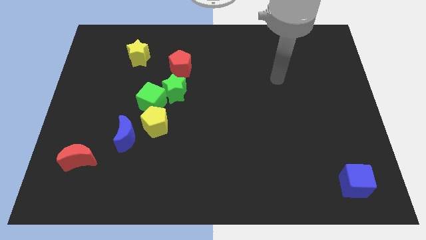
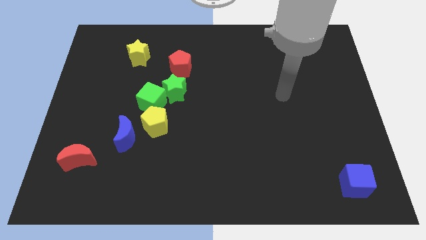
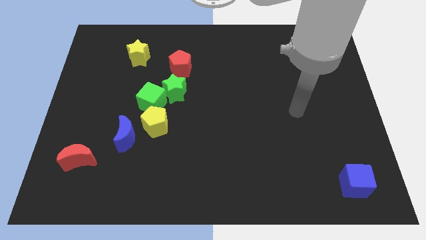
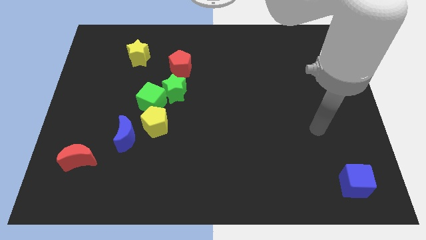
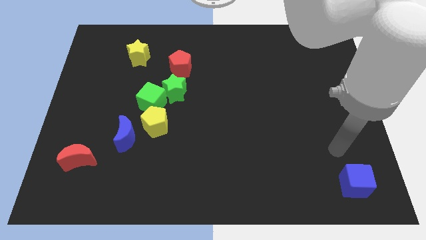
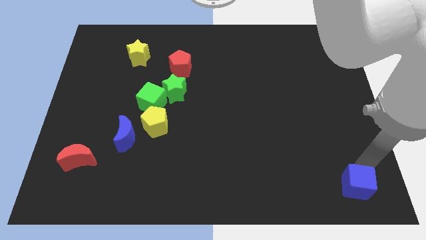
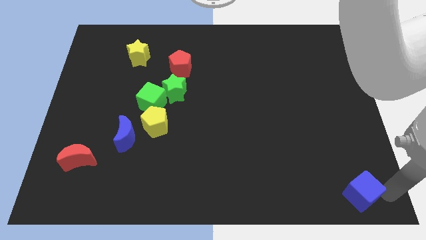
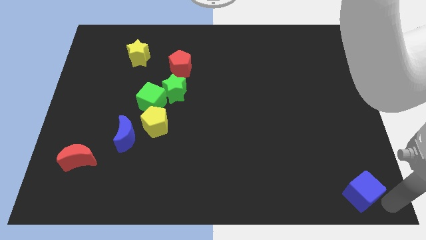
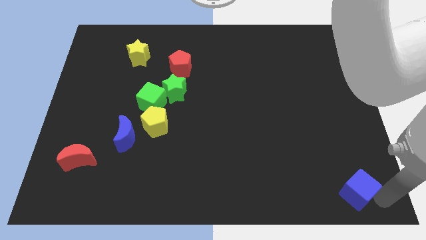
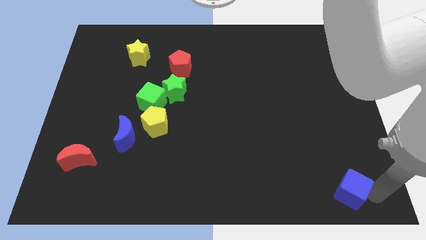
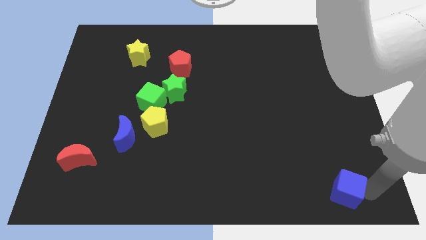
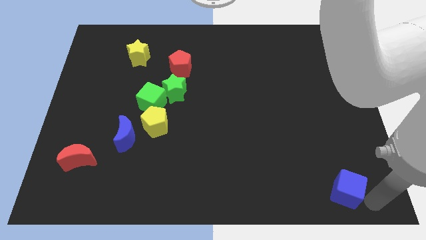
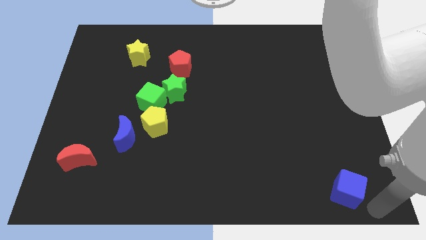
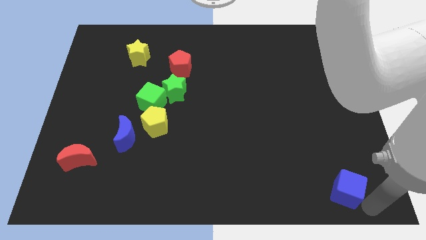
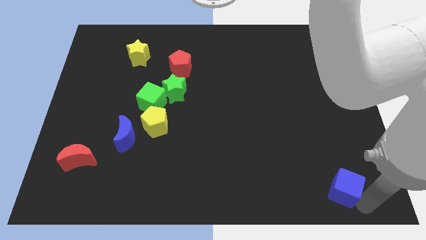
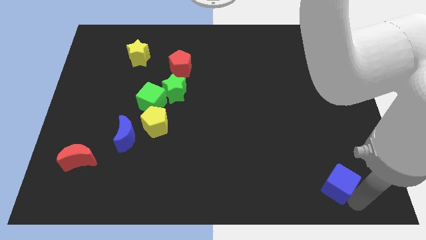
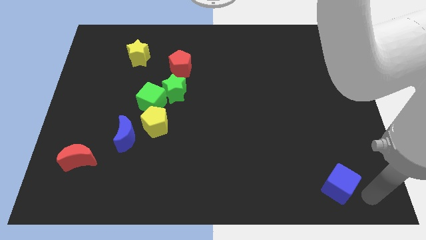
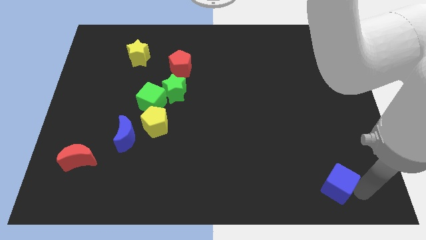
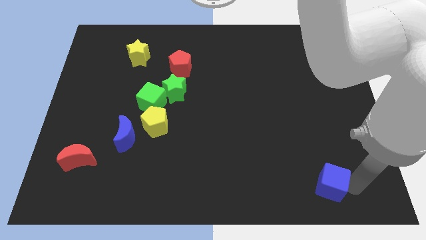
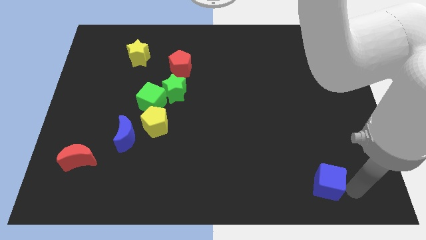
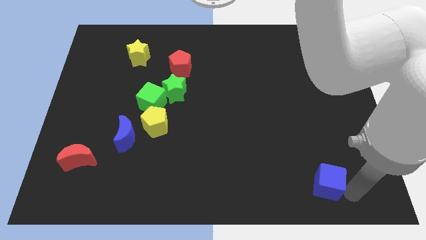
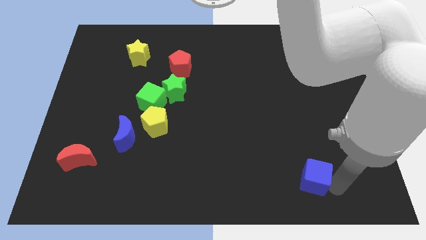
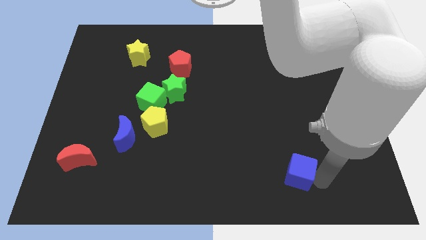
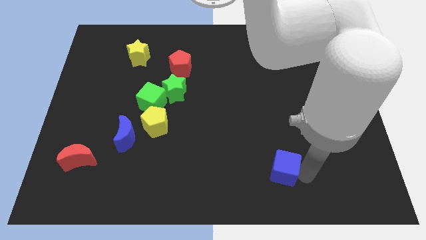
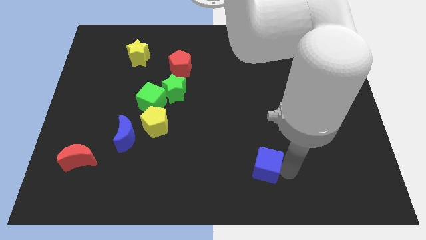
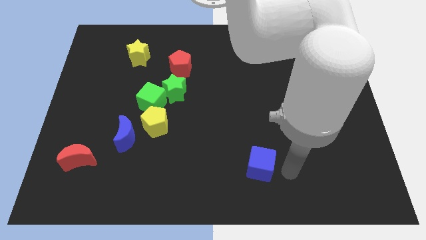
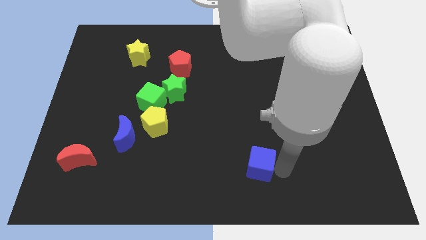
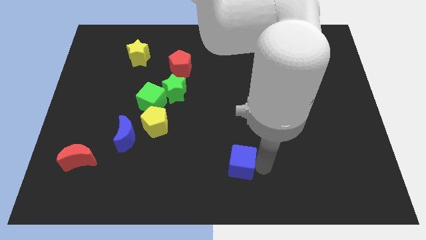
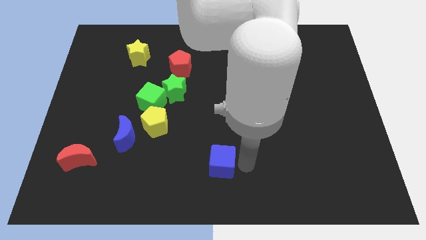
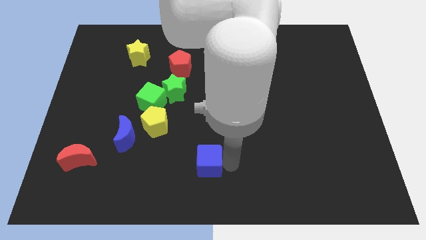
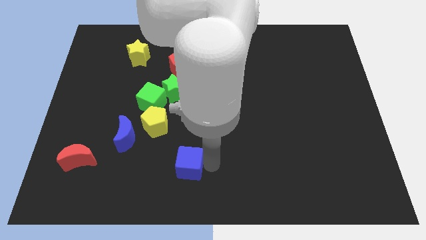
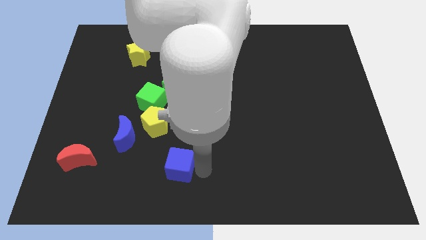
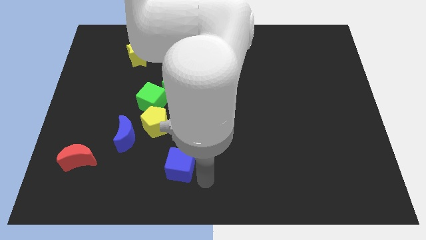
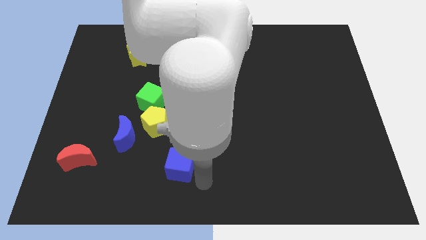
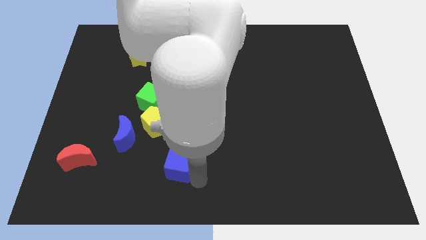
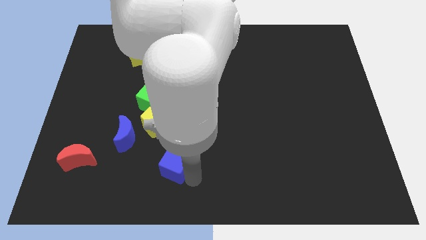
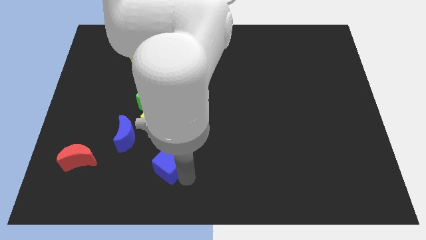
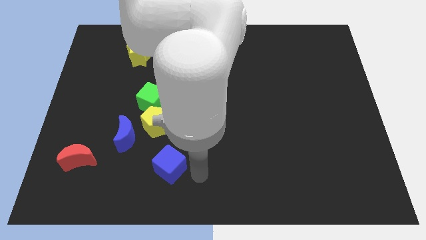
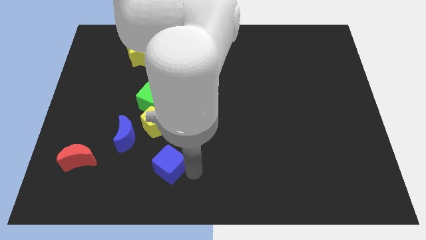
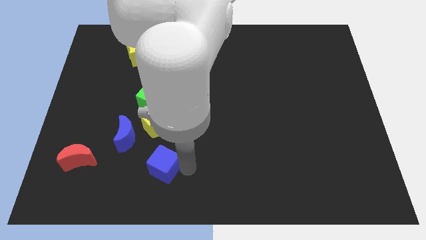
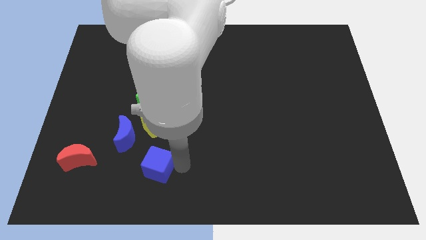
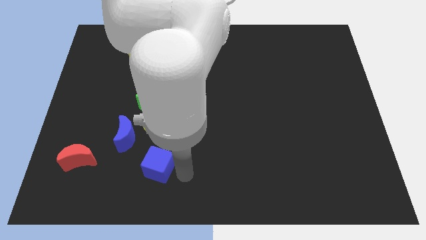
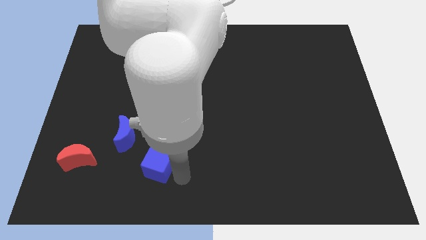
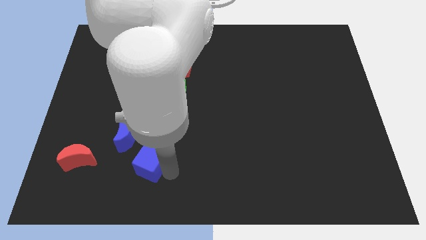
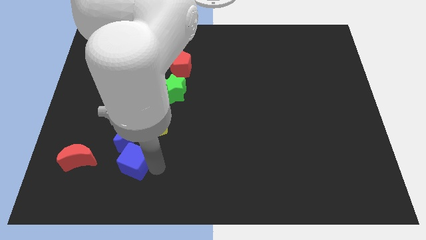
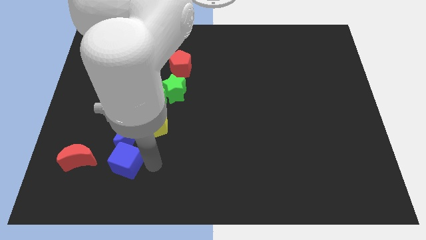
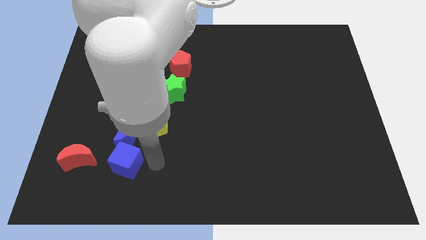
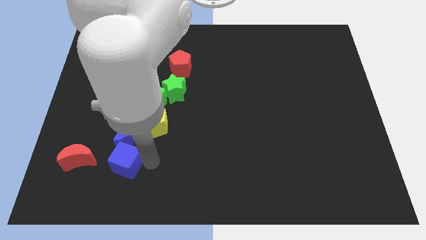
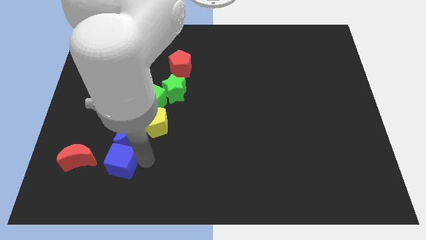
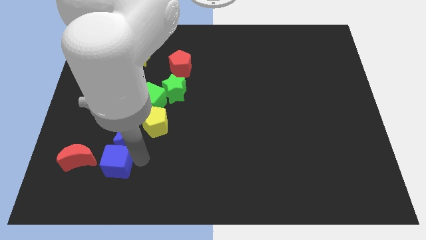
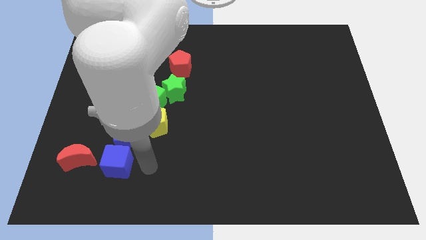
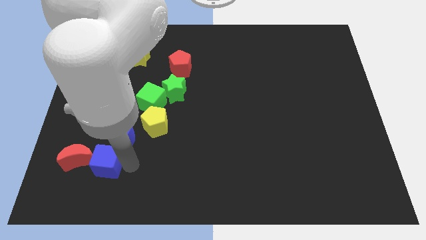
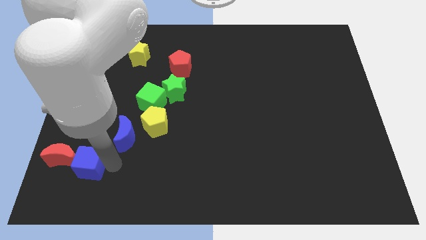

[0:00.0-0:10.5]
move the blue cube next to the red moon

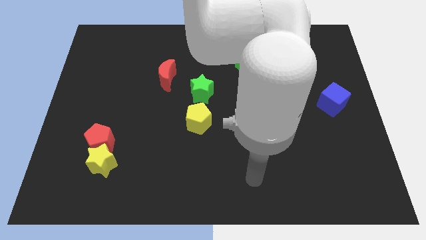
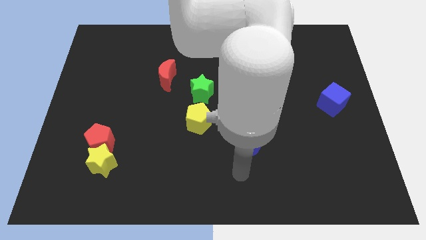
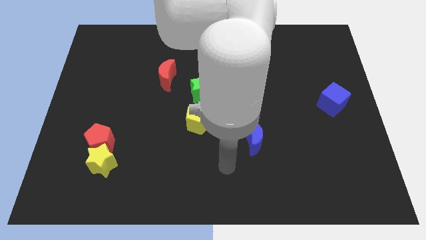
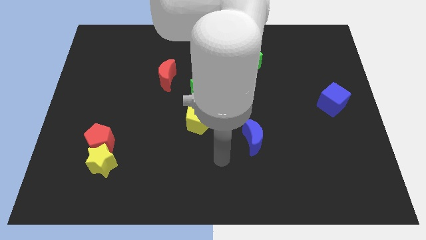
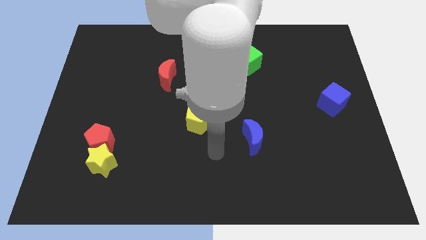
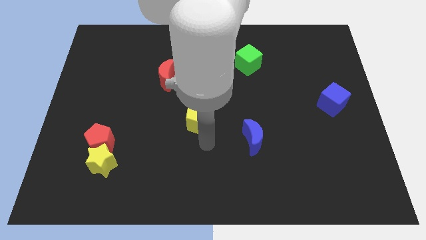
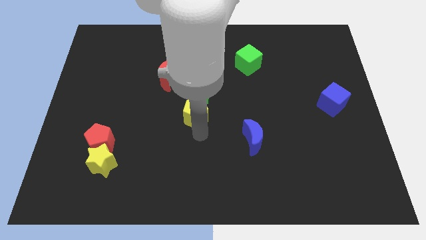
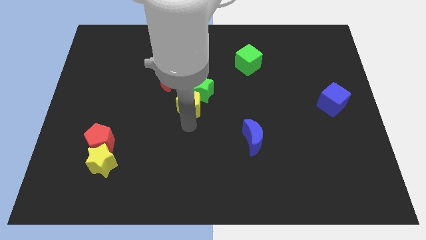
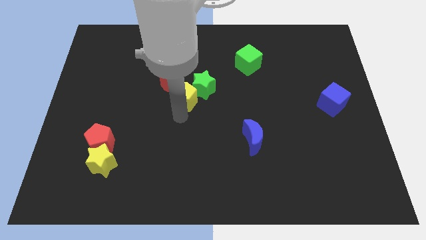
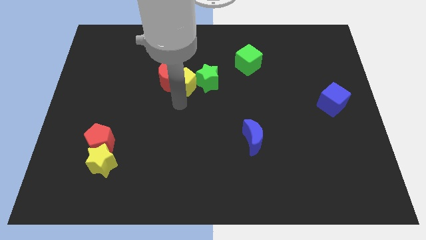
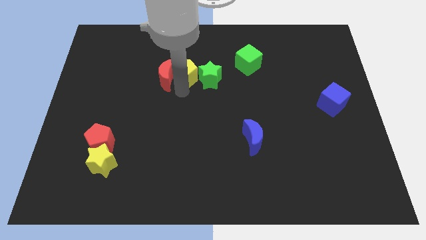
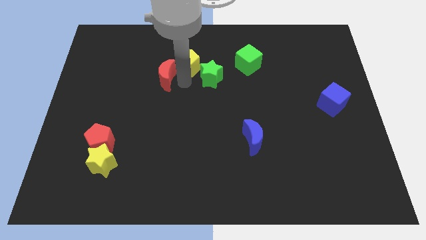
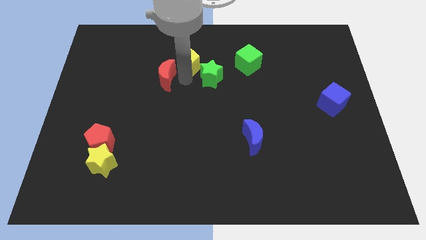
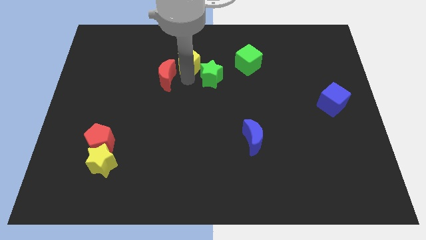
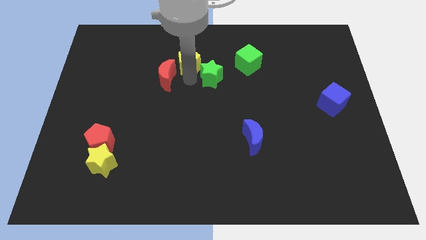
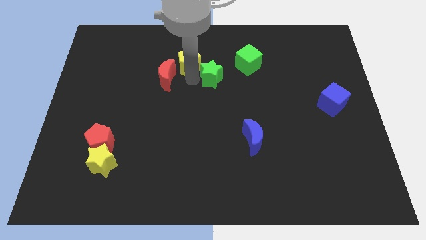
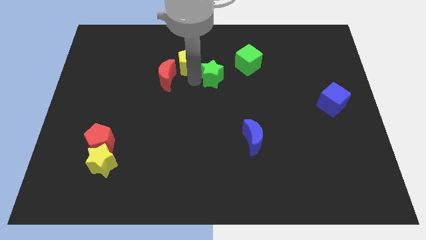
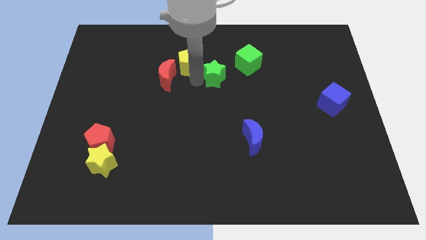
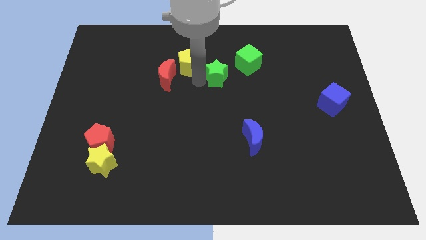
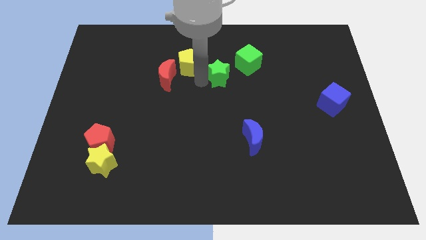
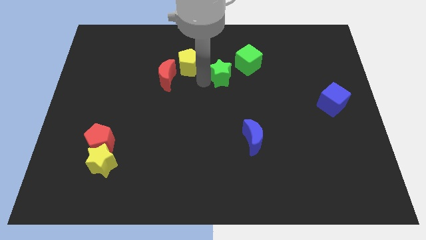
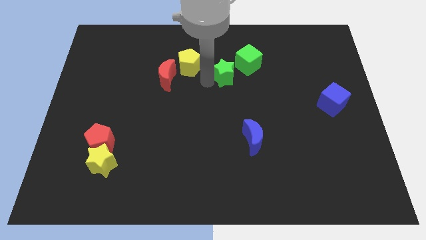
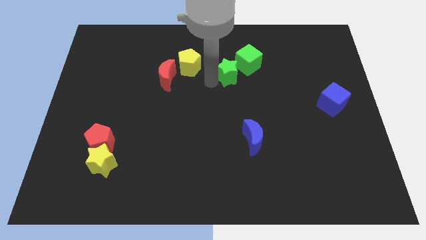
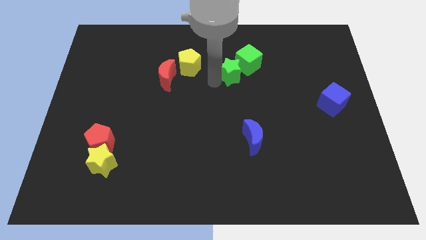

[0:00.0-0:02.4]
move the green star next to the green cube
